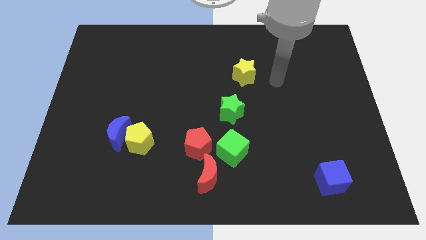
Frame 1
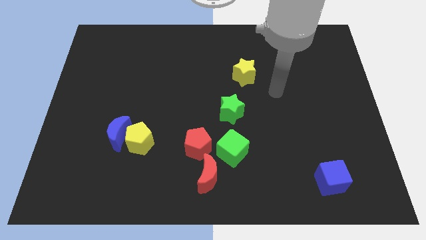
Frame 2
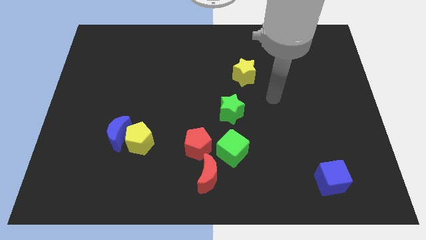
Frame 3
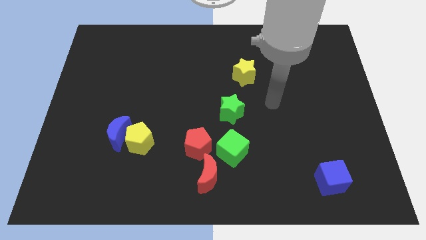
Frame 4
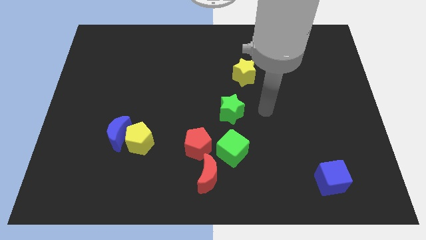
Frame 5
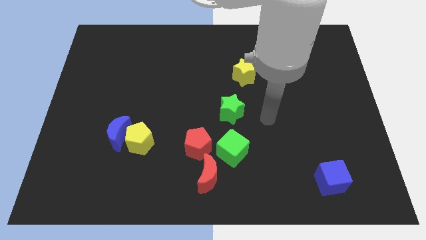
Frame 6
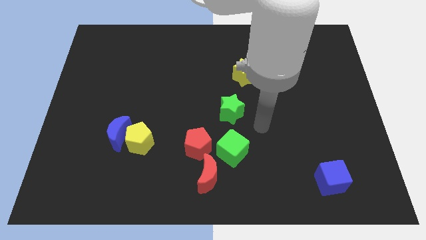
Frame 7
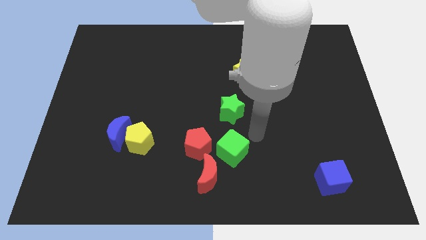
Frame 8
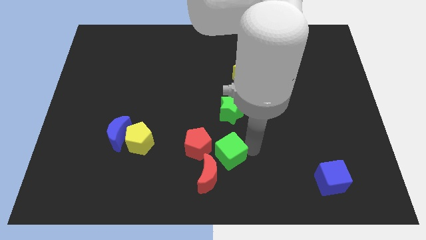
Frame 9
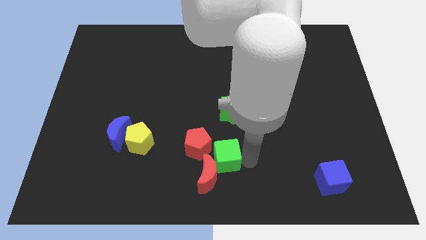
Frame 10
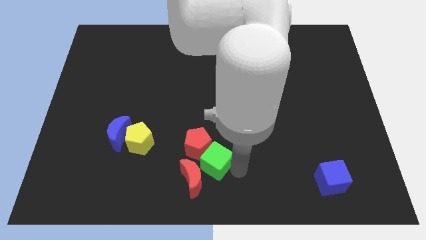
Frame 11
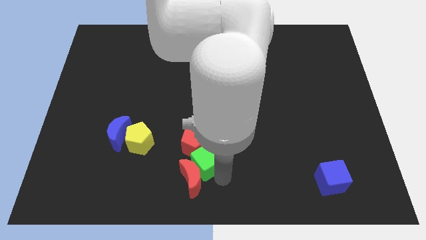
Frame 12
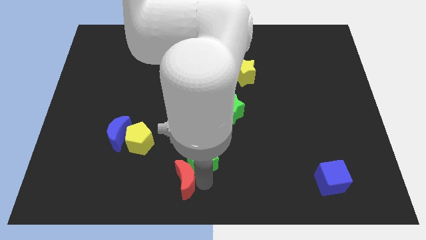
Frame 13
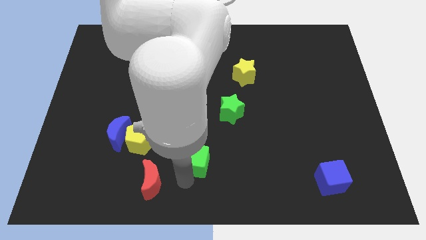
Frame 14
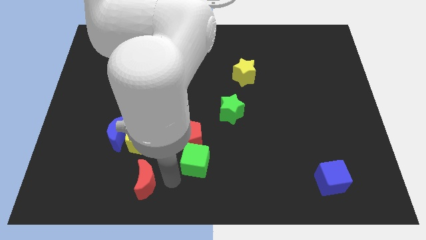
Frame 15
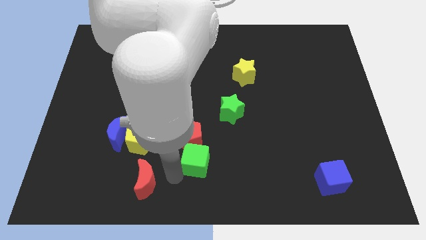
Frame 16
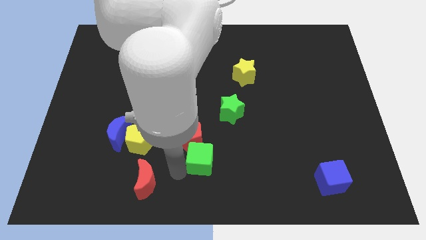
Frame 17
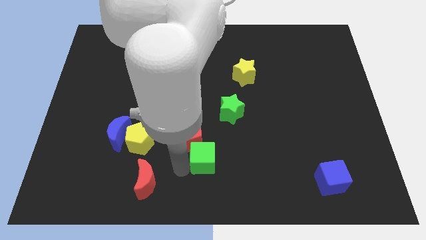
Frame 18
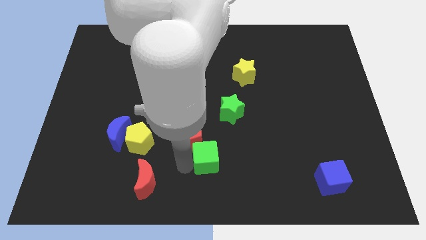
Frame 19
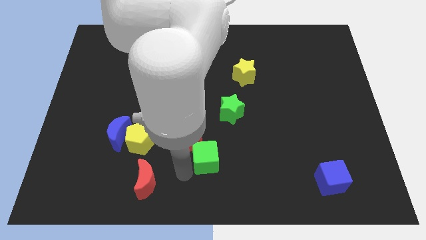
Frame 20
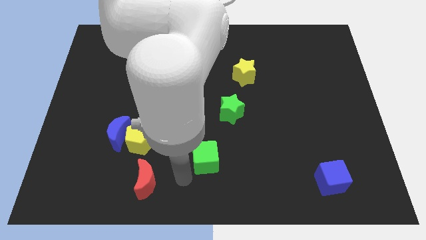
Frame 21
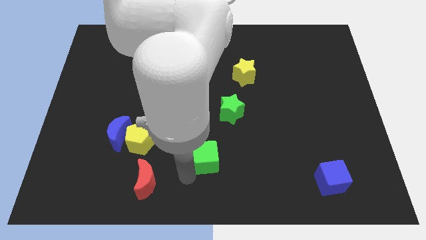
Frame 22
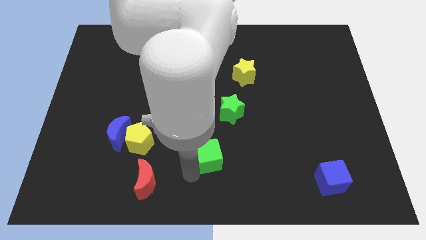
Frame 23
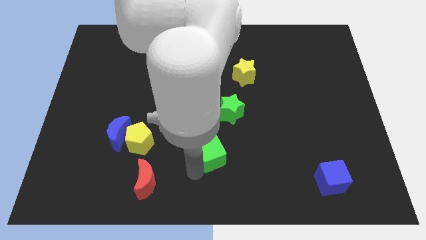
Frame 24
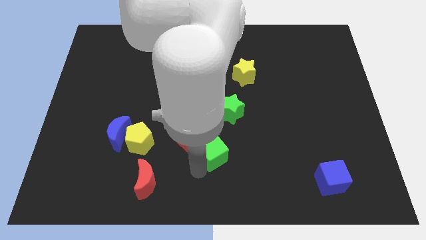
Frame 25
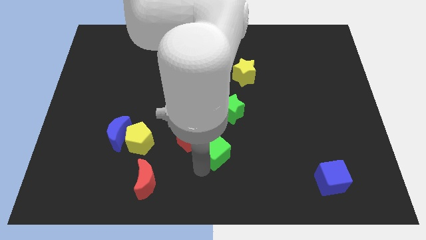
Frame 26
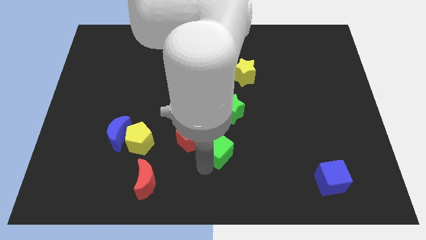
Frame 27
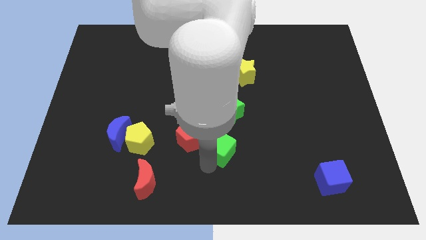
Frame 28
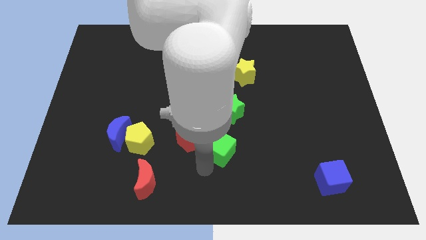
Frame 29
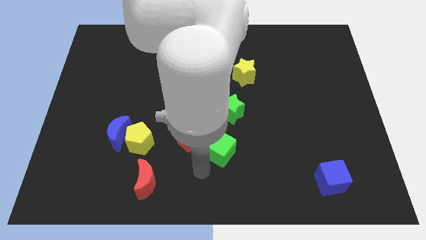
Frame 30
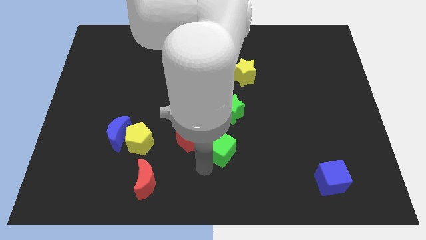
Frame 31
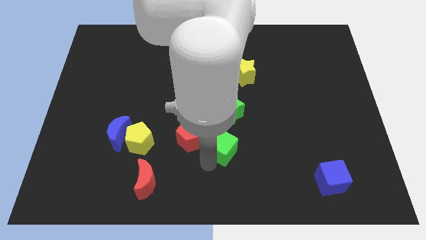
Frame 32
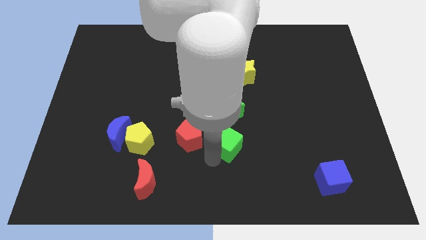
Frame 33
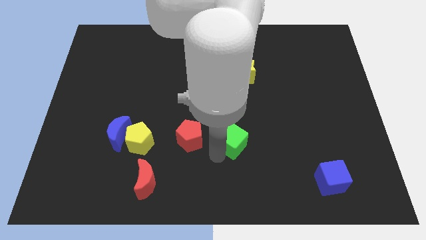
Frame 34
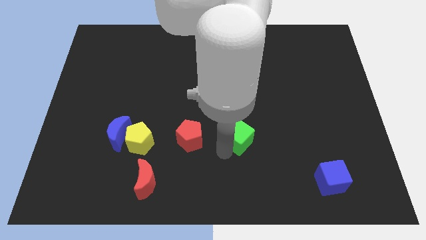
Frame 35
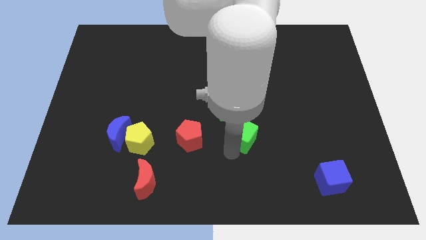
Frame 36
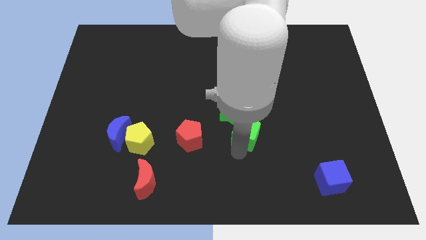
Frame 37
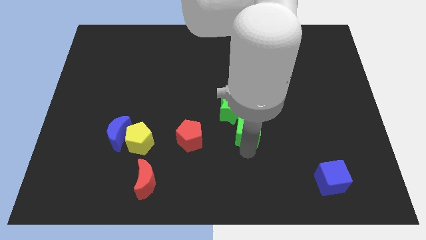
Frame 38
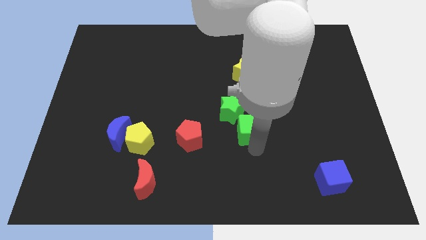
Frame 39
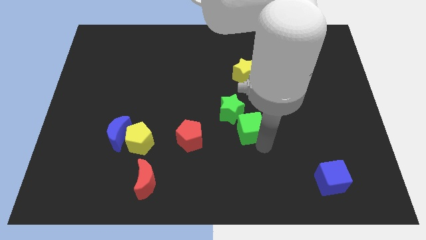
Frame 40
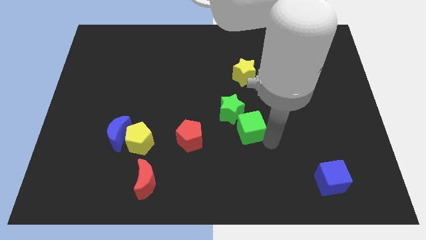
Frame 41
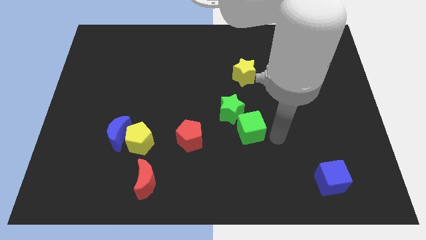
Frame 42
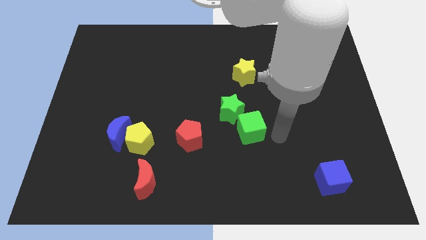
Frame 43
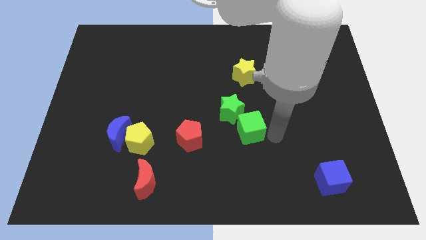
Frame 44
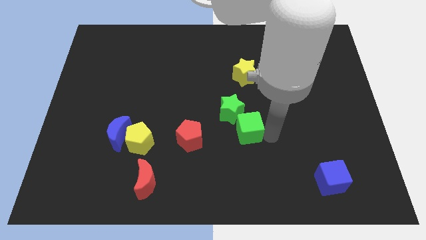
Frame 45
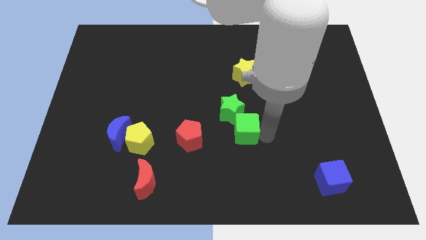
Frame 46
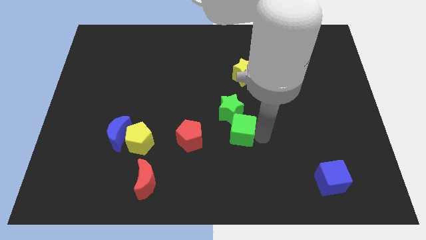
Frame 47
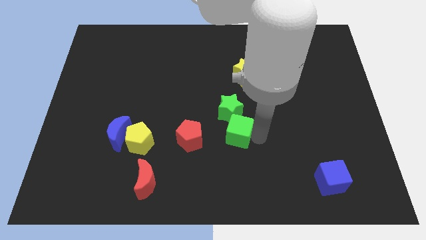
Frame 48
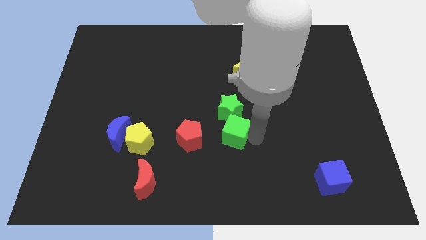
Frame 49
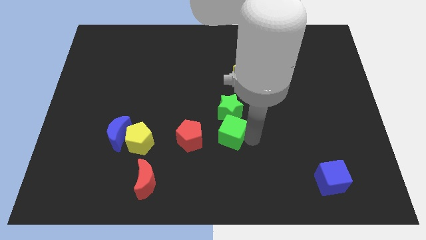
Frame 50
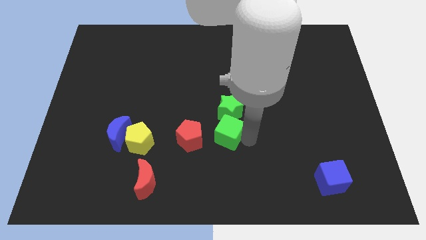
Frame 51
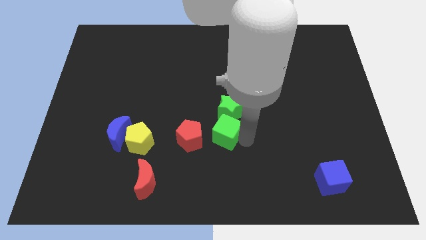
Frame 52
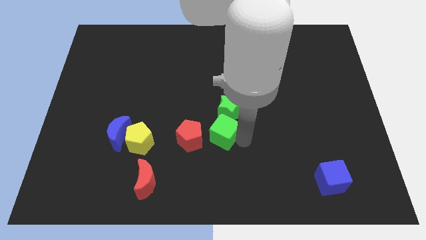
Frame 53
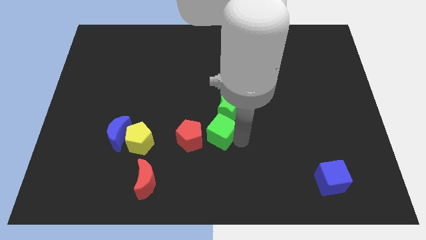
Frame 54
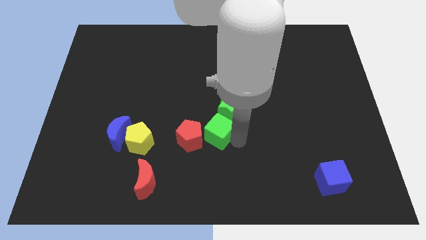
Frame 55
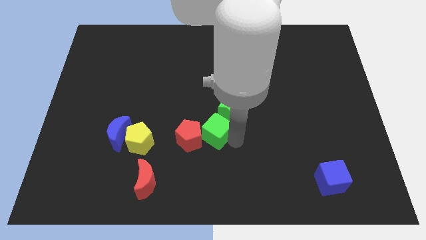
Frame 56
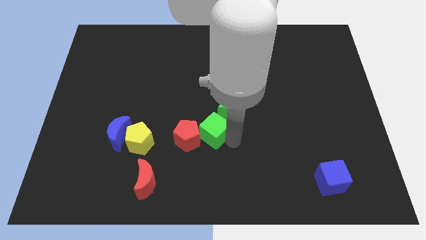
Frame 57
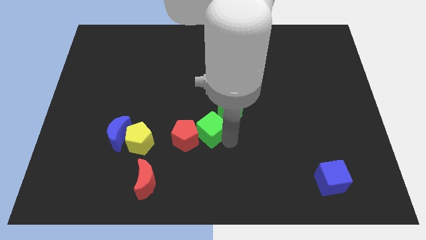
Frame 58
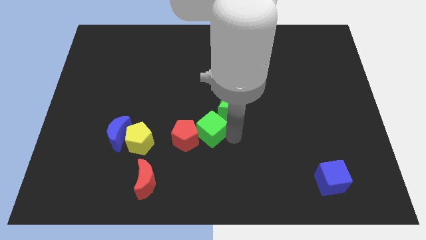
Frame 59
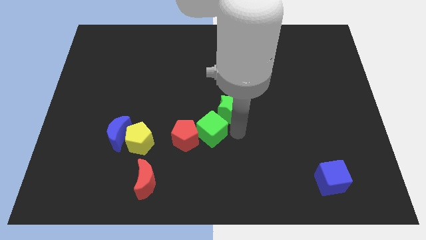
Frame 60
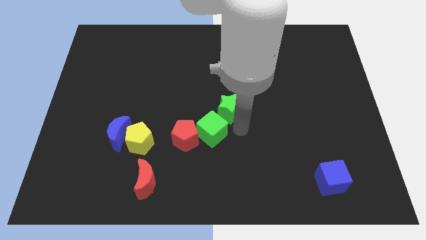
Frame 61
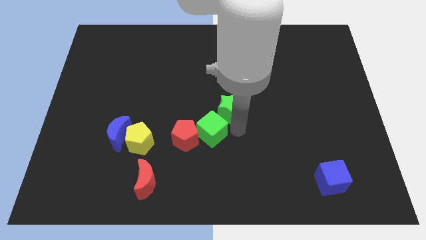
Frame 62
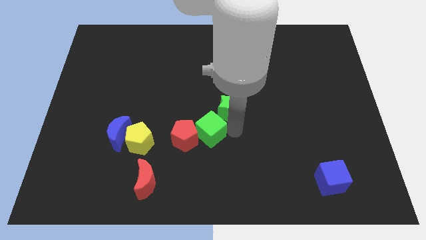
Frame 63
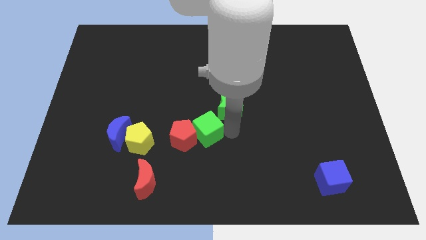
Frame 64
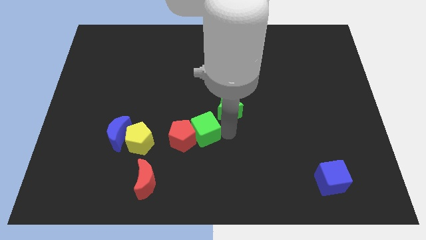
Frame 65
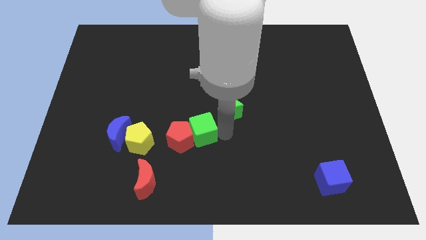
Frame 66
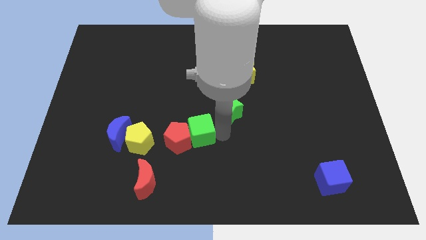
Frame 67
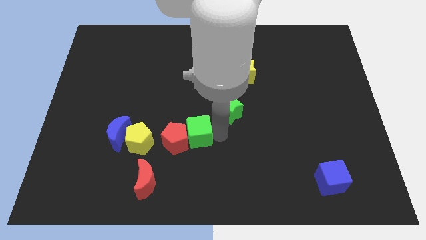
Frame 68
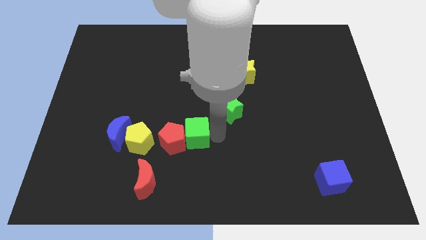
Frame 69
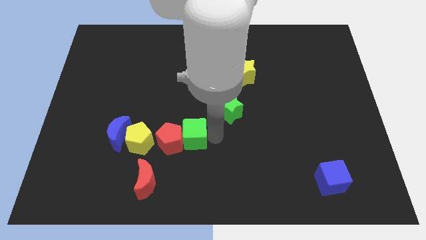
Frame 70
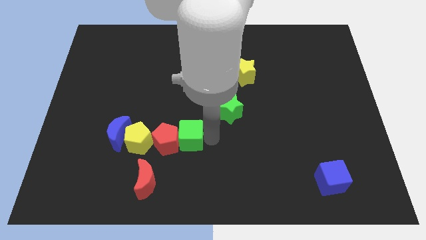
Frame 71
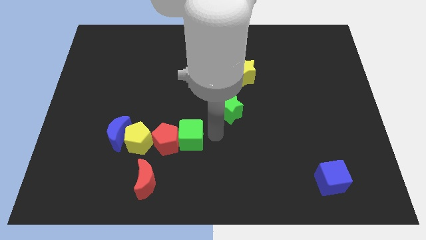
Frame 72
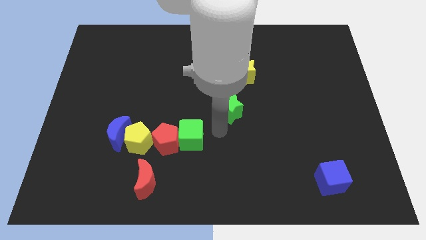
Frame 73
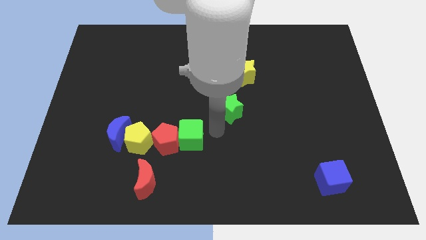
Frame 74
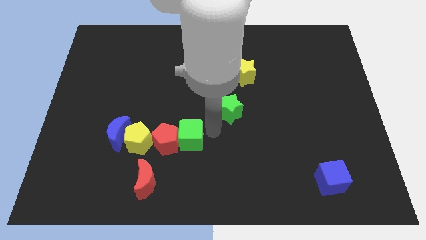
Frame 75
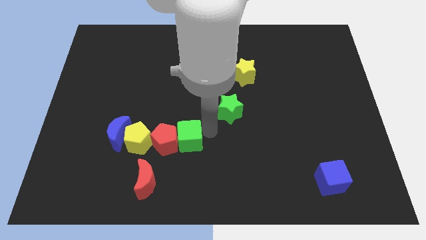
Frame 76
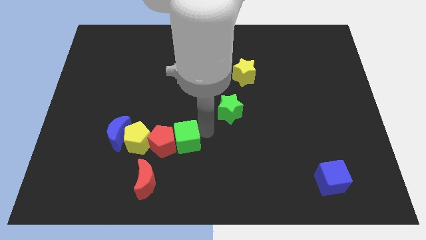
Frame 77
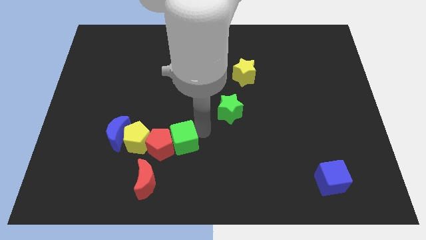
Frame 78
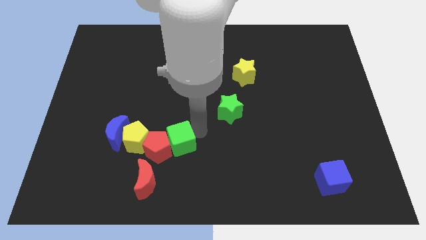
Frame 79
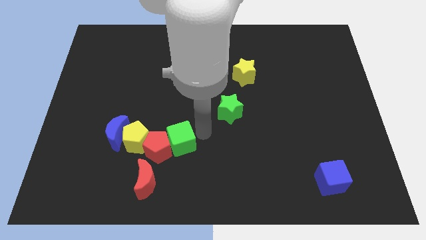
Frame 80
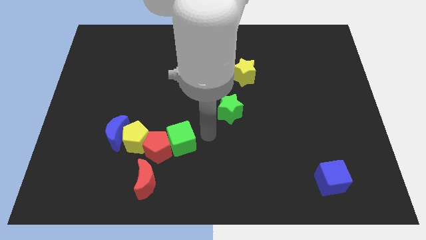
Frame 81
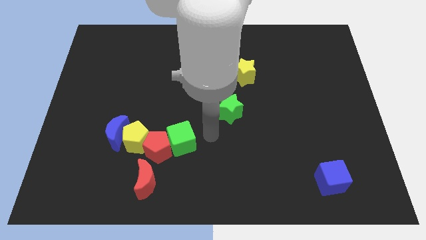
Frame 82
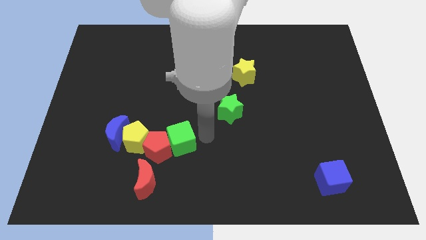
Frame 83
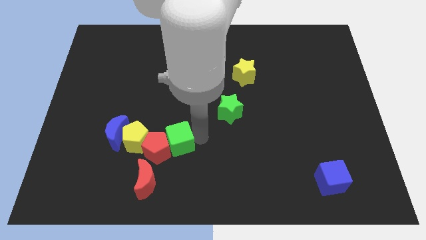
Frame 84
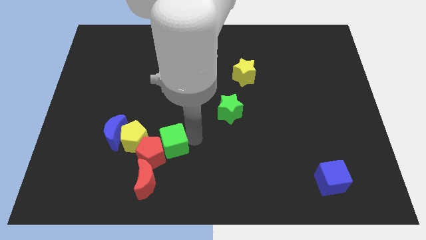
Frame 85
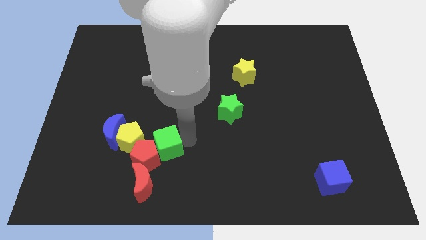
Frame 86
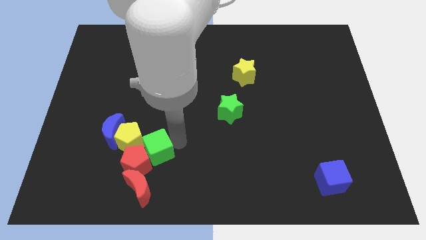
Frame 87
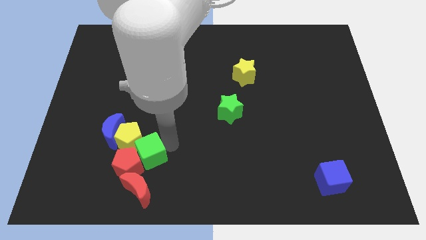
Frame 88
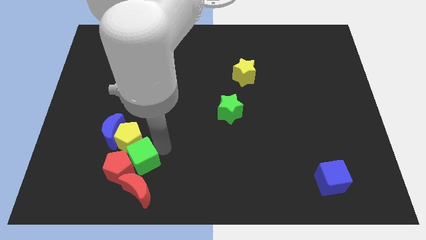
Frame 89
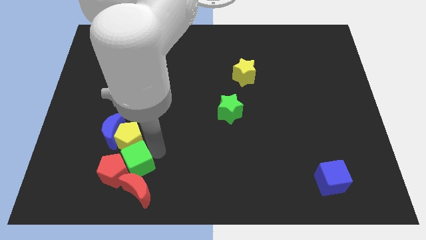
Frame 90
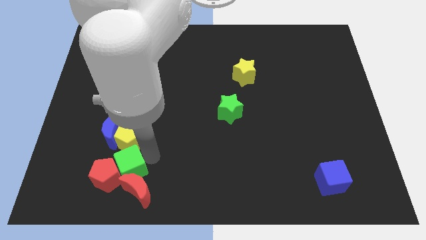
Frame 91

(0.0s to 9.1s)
move the green cube to the left
